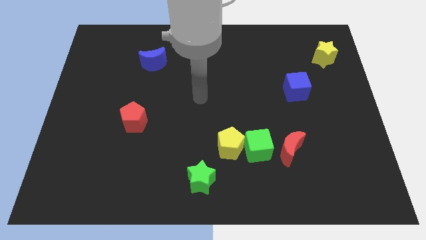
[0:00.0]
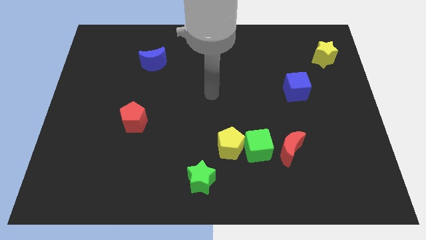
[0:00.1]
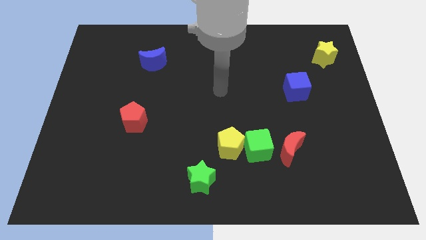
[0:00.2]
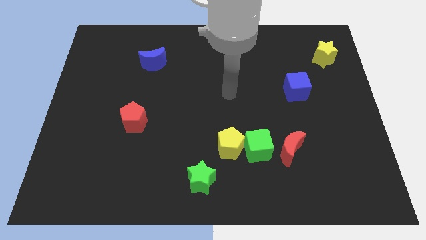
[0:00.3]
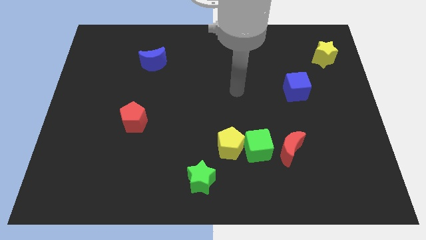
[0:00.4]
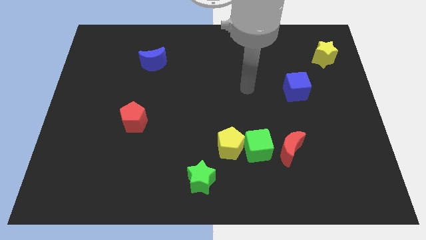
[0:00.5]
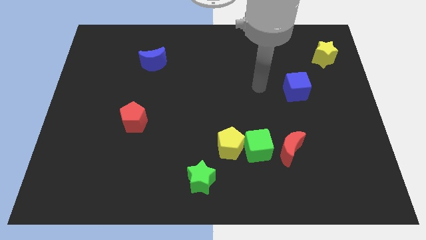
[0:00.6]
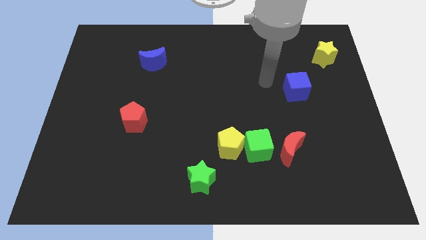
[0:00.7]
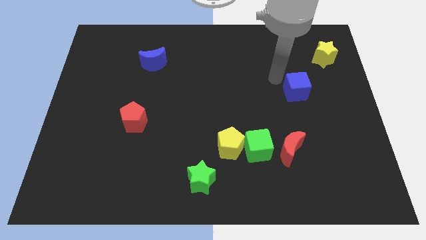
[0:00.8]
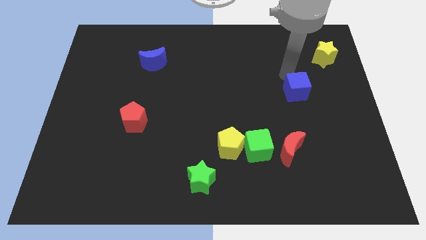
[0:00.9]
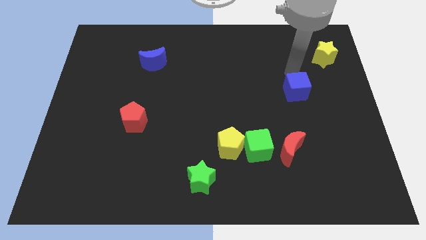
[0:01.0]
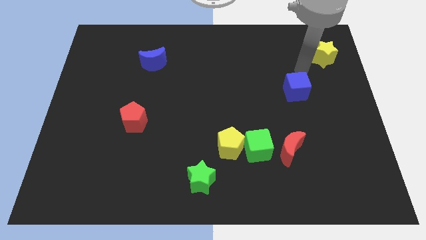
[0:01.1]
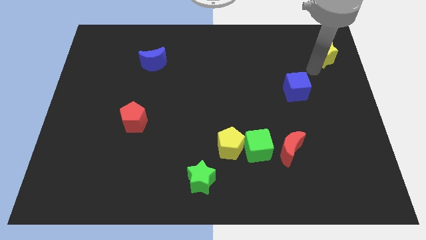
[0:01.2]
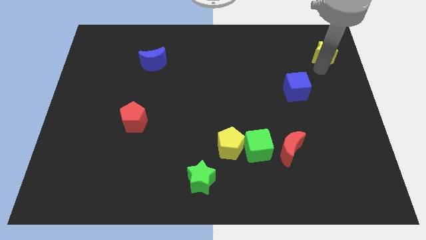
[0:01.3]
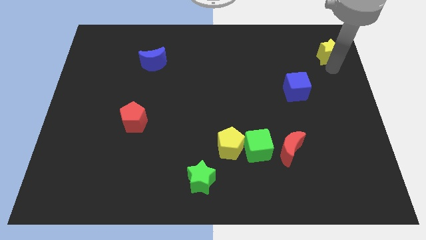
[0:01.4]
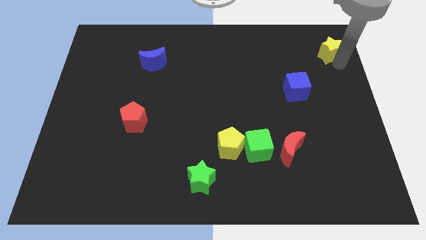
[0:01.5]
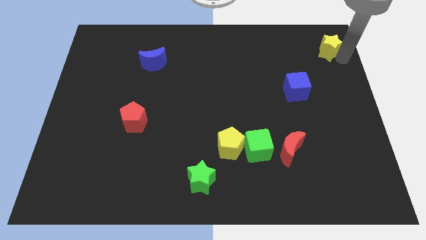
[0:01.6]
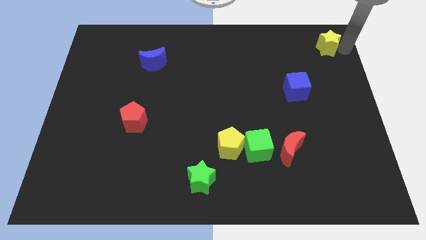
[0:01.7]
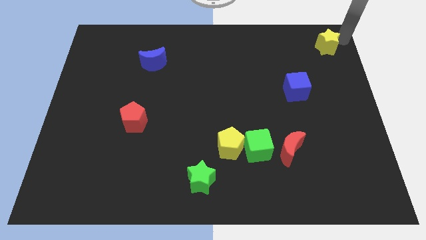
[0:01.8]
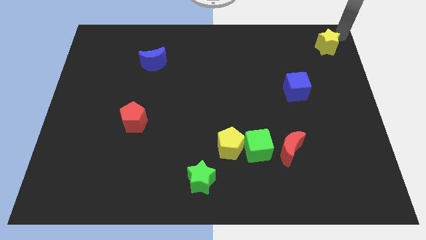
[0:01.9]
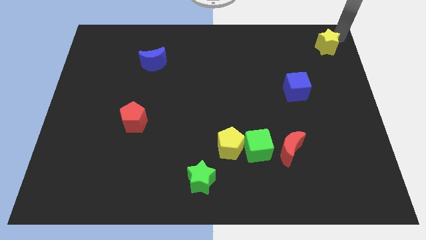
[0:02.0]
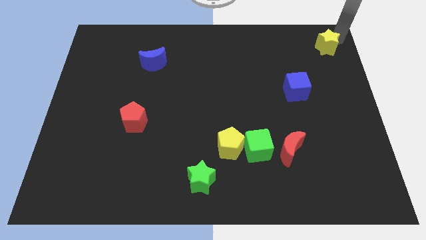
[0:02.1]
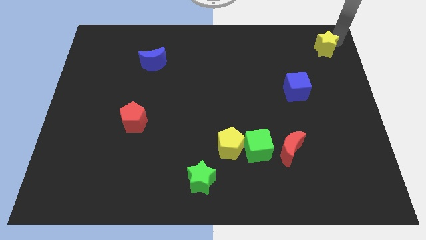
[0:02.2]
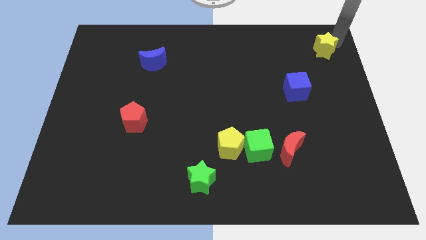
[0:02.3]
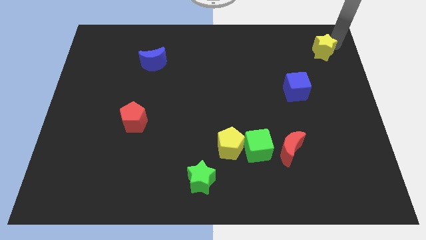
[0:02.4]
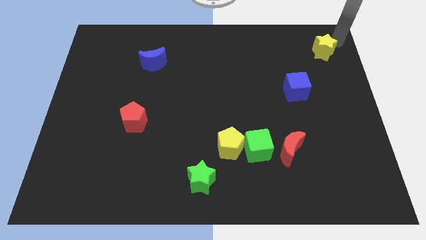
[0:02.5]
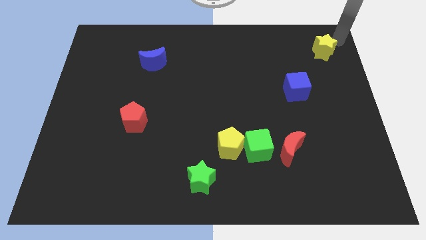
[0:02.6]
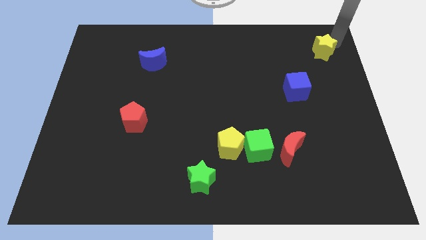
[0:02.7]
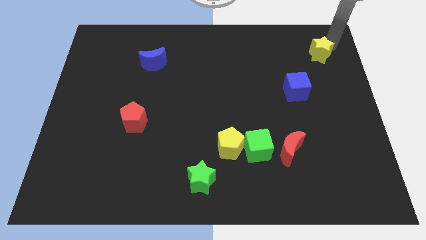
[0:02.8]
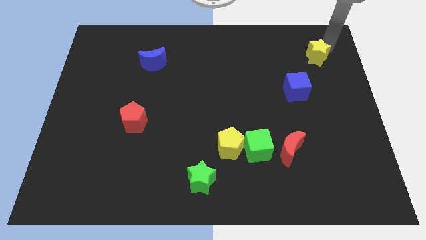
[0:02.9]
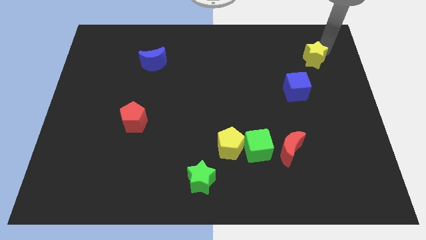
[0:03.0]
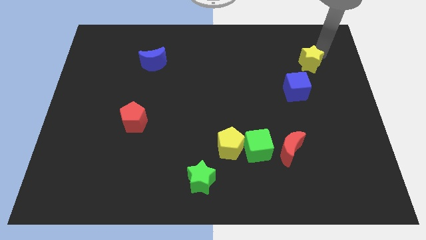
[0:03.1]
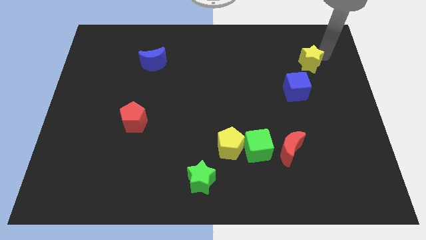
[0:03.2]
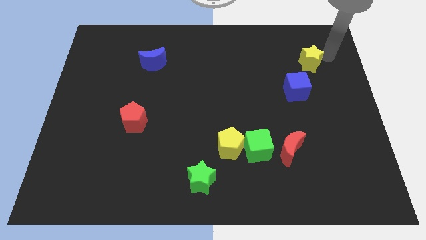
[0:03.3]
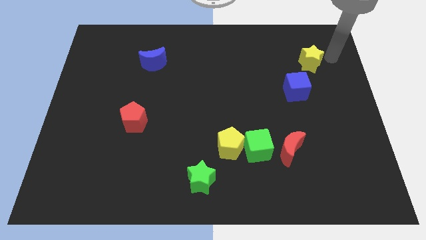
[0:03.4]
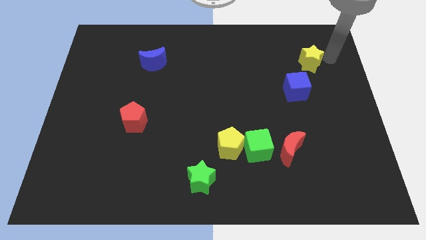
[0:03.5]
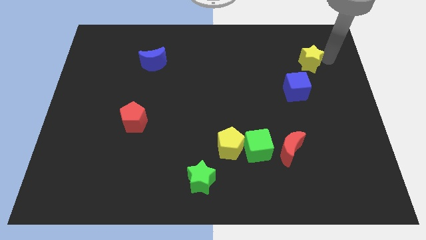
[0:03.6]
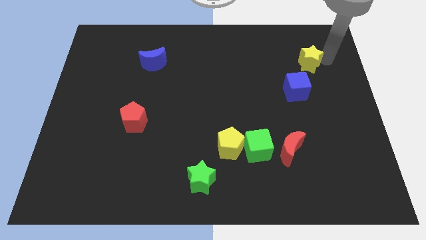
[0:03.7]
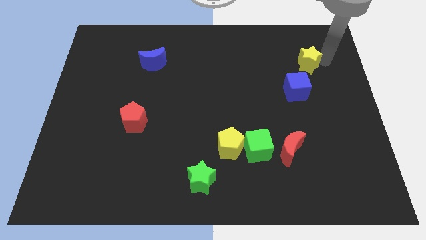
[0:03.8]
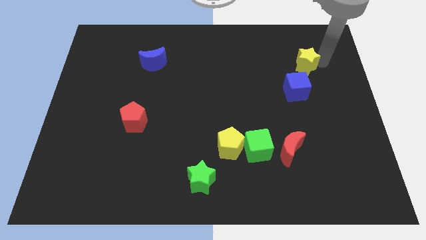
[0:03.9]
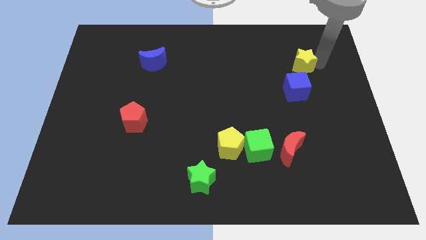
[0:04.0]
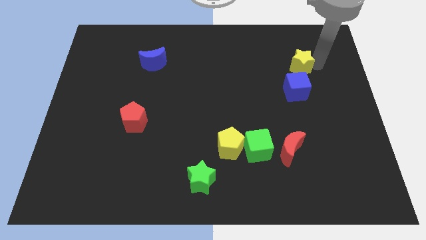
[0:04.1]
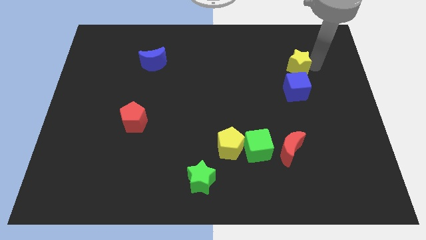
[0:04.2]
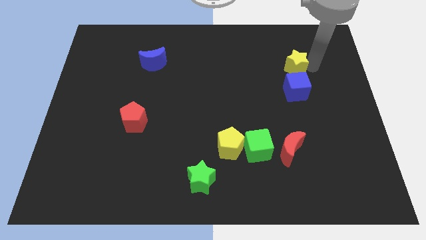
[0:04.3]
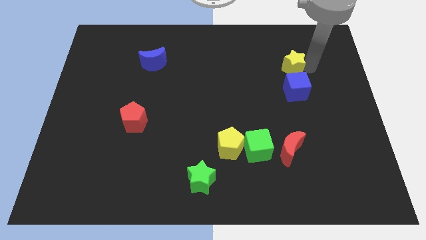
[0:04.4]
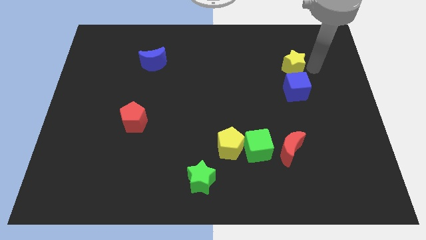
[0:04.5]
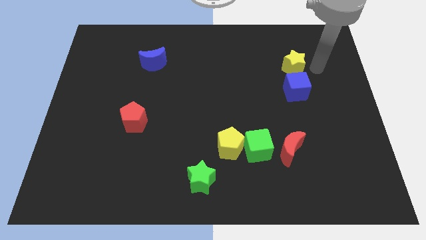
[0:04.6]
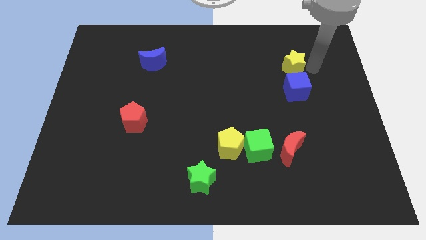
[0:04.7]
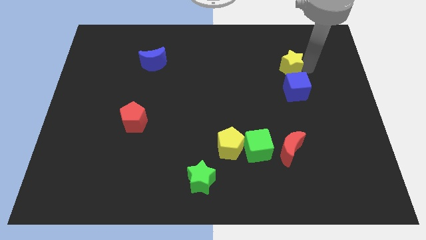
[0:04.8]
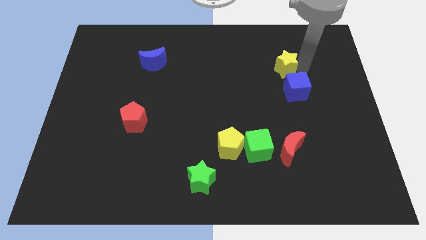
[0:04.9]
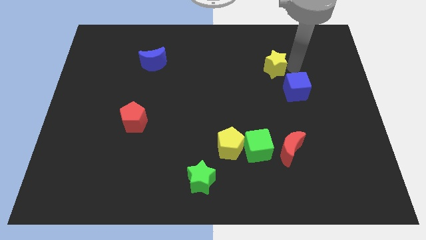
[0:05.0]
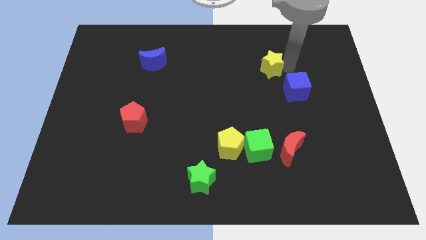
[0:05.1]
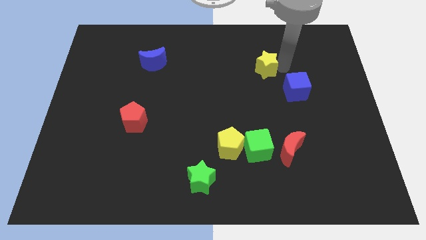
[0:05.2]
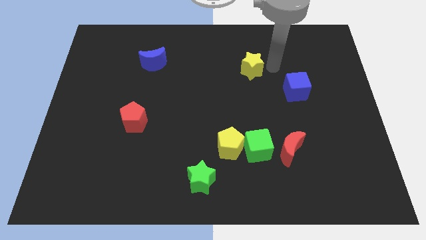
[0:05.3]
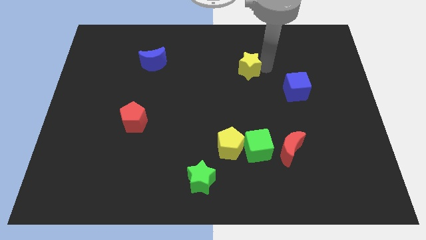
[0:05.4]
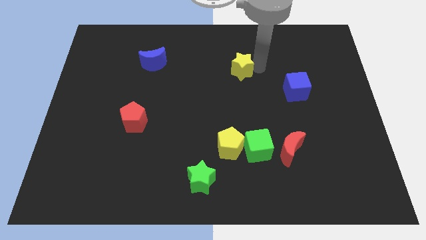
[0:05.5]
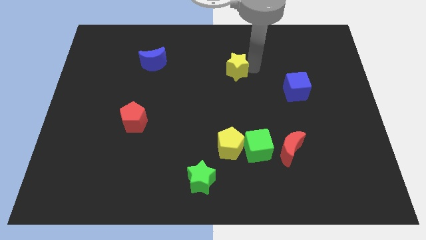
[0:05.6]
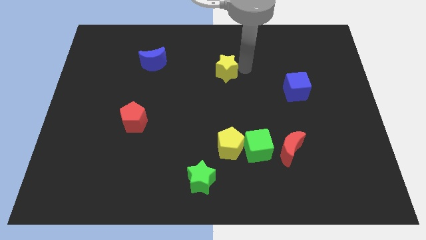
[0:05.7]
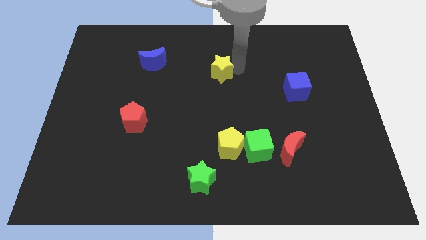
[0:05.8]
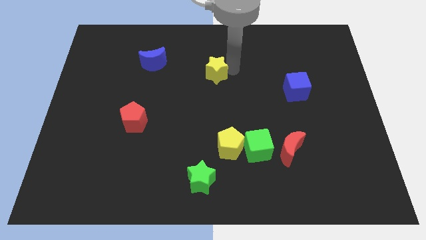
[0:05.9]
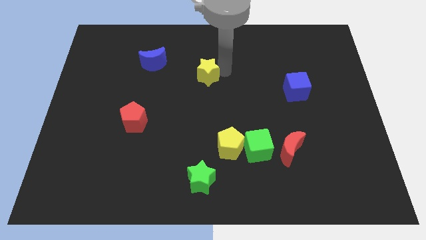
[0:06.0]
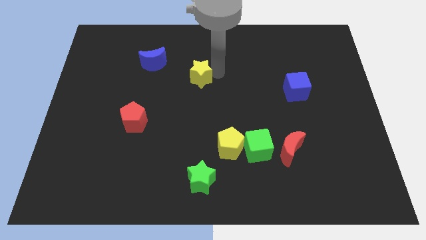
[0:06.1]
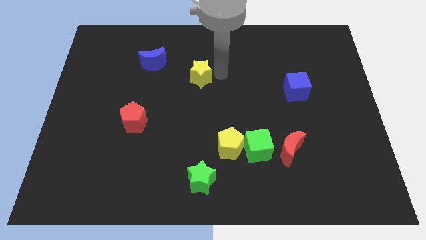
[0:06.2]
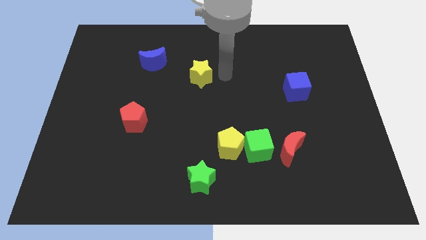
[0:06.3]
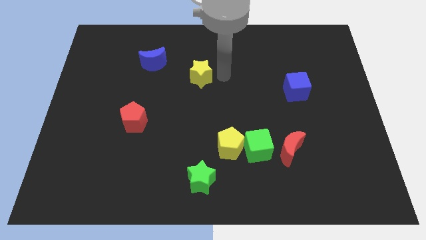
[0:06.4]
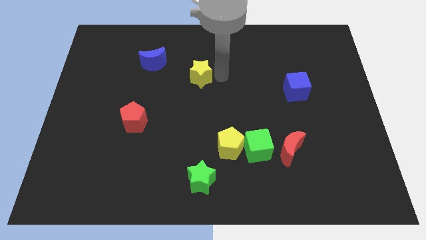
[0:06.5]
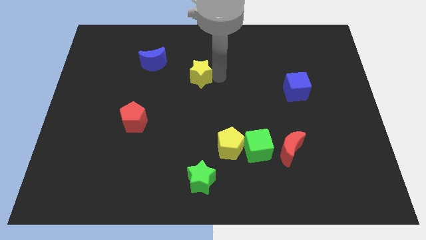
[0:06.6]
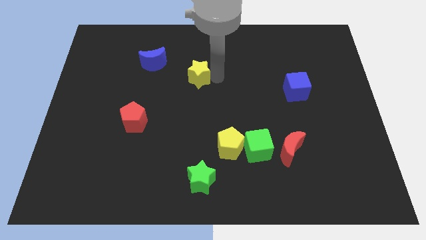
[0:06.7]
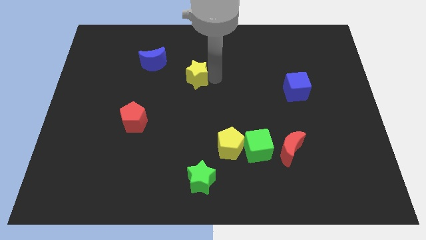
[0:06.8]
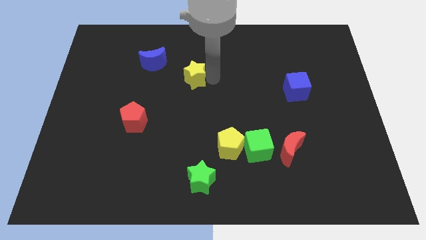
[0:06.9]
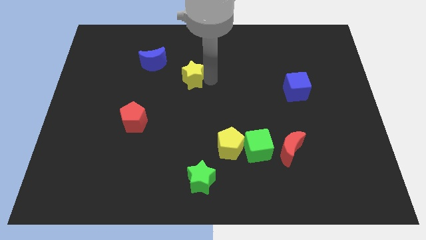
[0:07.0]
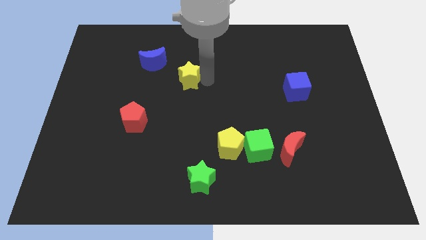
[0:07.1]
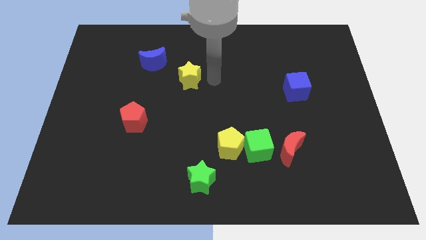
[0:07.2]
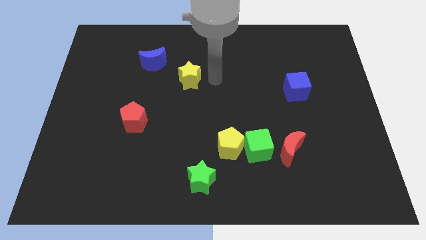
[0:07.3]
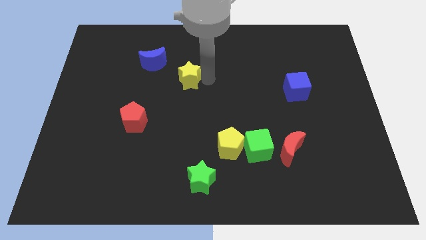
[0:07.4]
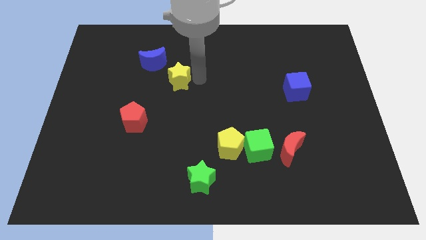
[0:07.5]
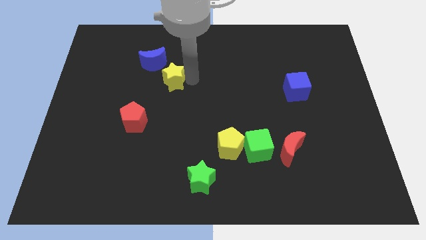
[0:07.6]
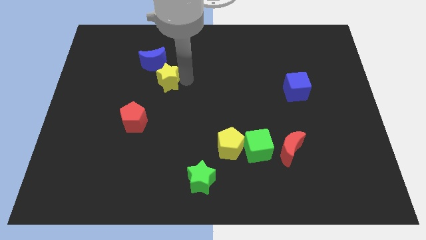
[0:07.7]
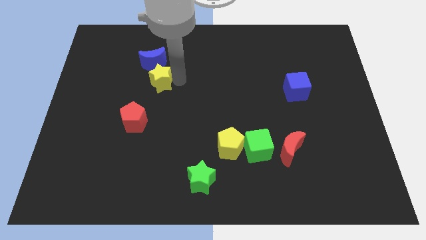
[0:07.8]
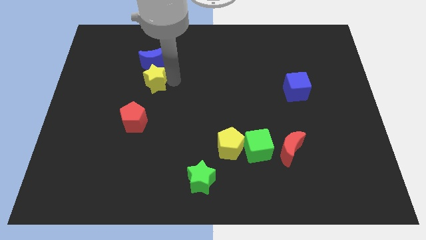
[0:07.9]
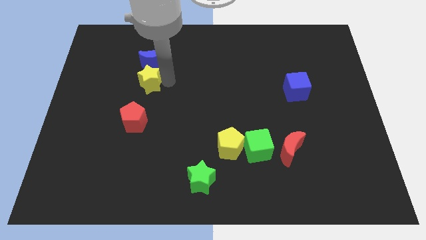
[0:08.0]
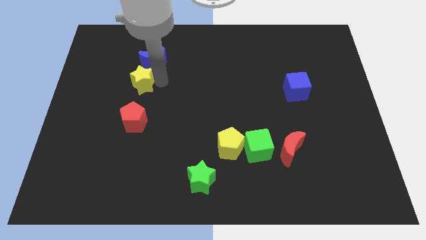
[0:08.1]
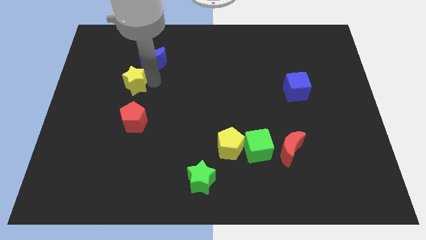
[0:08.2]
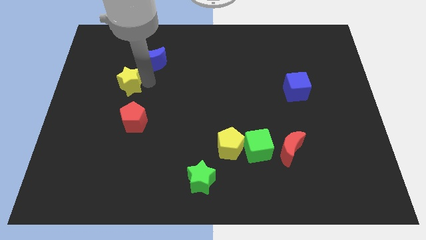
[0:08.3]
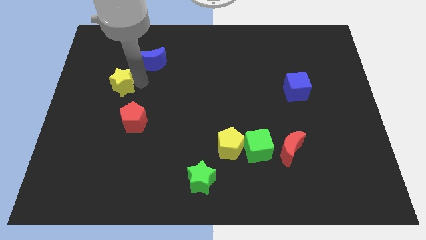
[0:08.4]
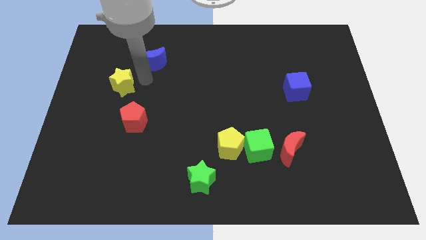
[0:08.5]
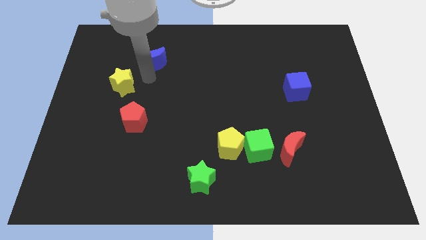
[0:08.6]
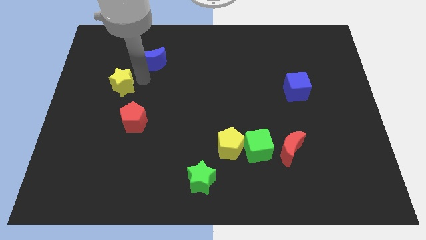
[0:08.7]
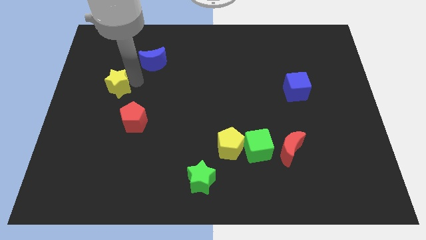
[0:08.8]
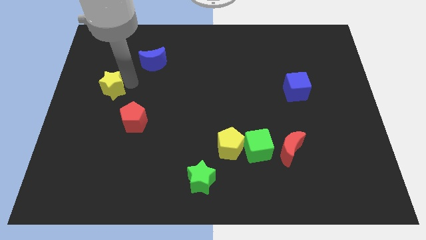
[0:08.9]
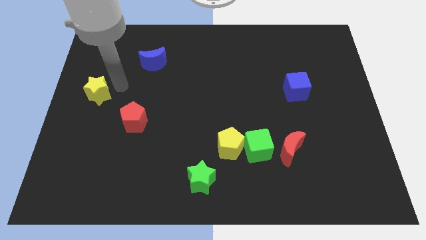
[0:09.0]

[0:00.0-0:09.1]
slide the yellow star to the left side of the board
